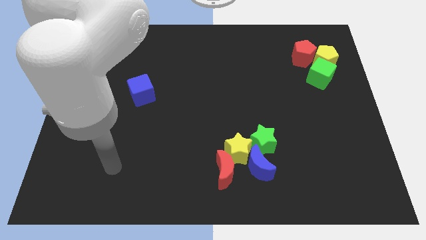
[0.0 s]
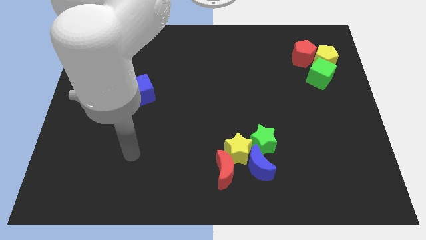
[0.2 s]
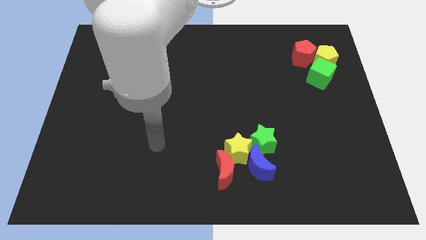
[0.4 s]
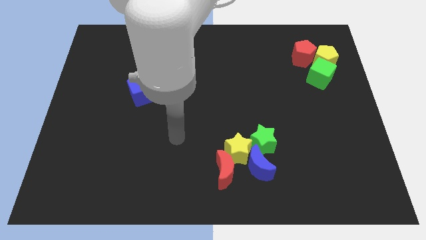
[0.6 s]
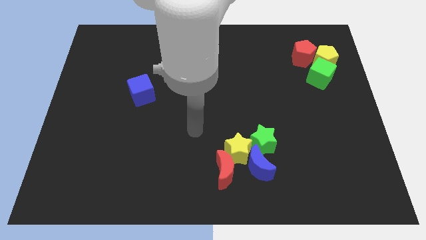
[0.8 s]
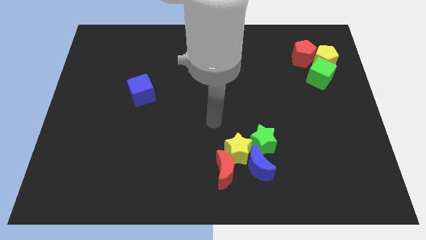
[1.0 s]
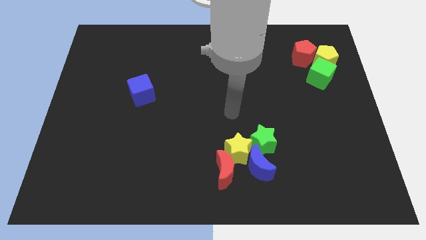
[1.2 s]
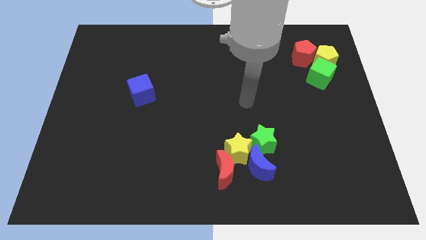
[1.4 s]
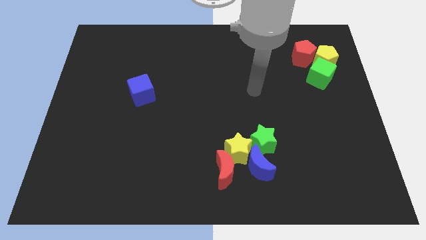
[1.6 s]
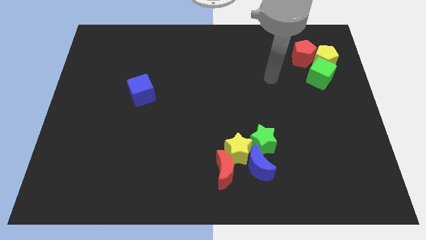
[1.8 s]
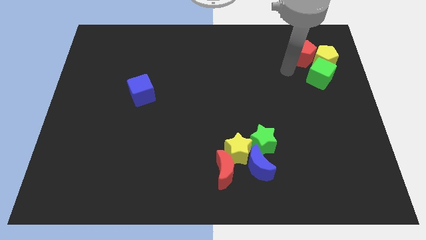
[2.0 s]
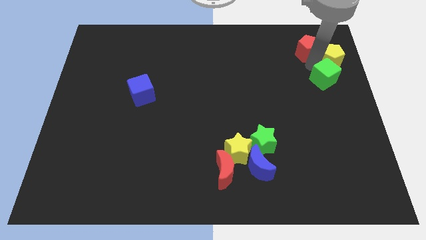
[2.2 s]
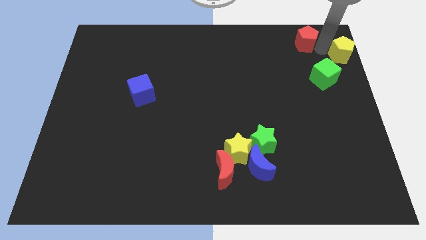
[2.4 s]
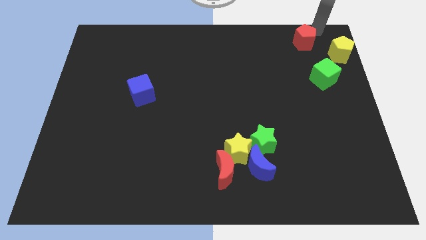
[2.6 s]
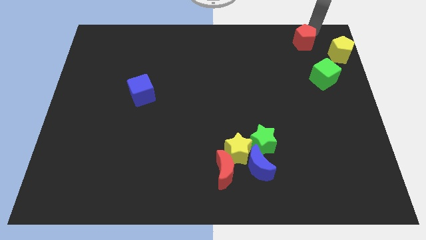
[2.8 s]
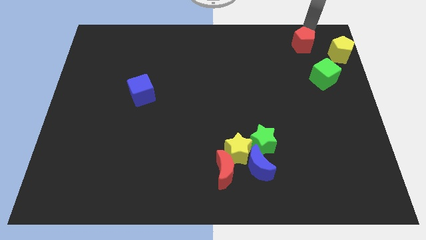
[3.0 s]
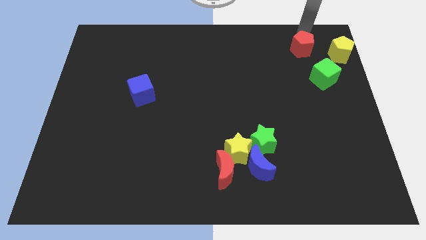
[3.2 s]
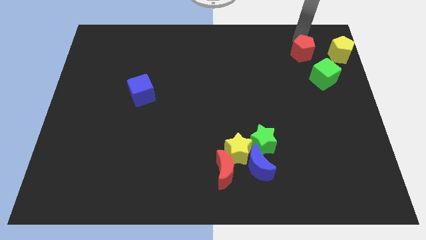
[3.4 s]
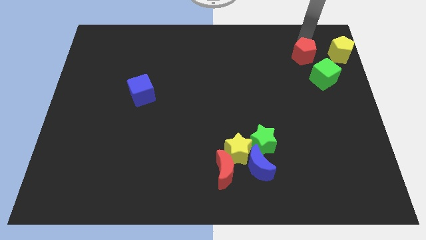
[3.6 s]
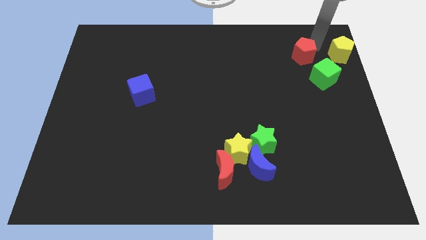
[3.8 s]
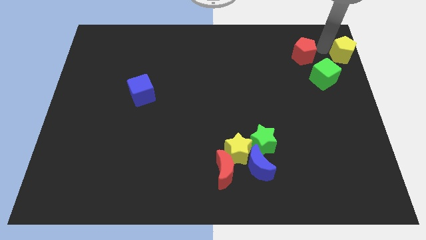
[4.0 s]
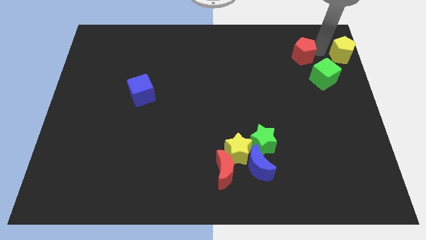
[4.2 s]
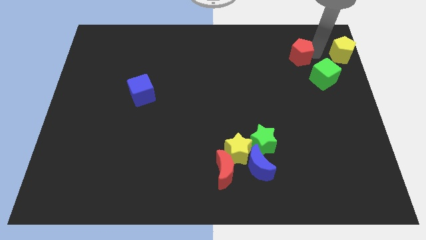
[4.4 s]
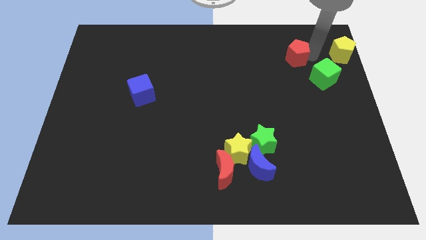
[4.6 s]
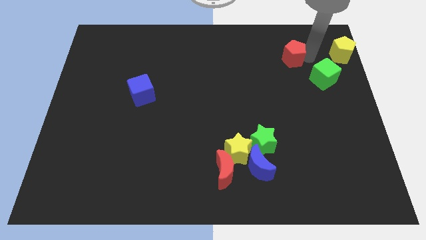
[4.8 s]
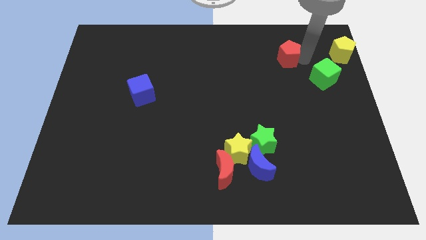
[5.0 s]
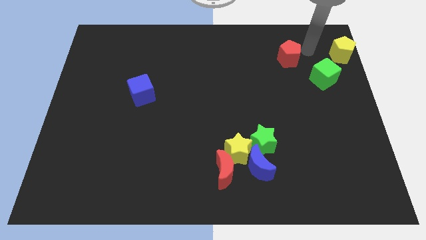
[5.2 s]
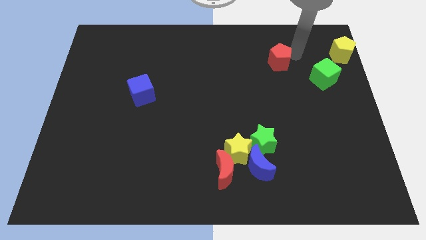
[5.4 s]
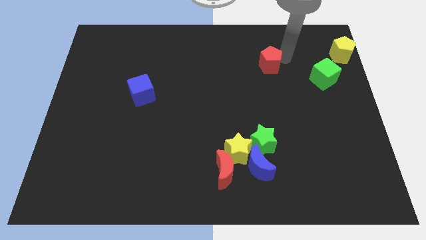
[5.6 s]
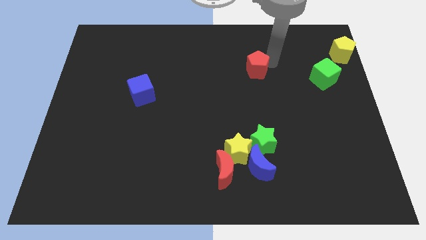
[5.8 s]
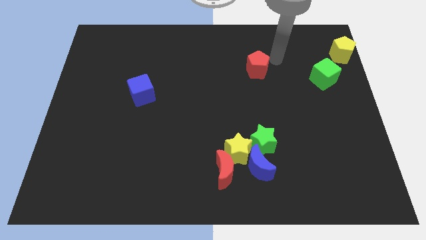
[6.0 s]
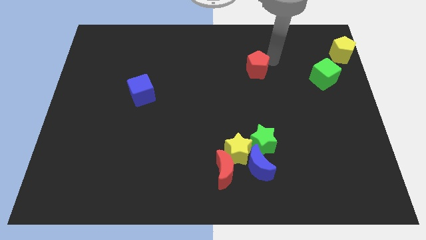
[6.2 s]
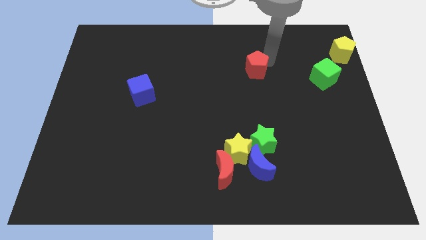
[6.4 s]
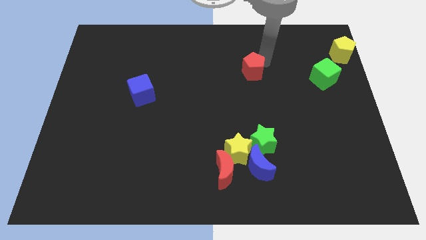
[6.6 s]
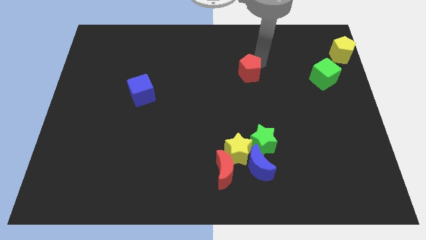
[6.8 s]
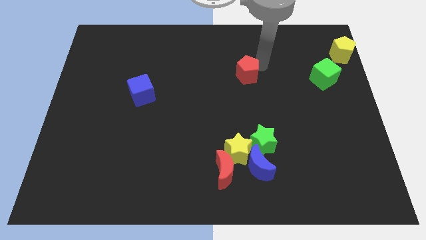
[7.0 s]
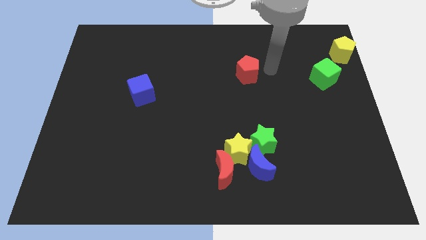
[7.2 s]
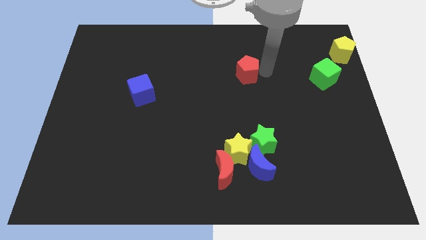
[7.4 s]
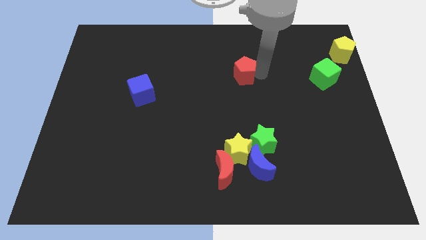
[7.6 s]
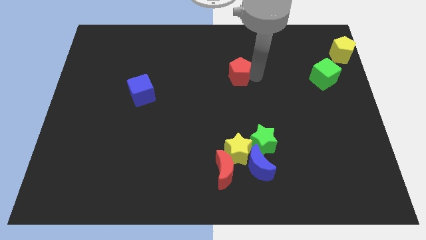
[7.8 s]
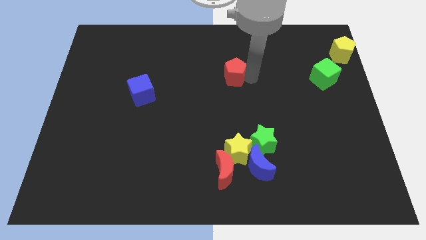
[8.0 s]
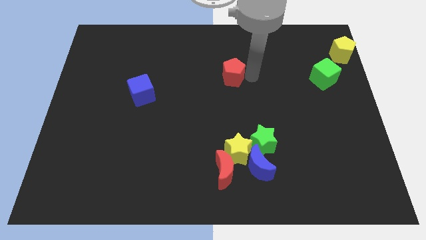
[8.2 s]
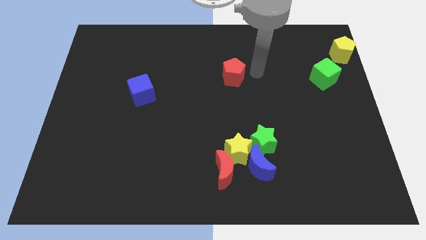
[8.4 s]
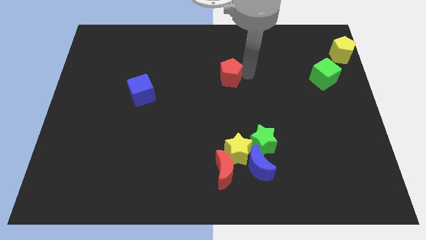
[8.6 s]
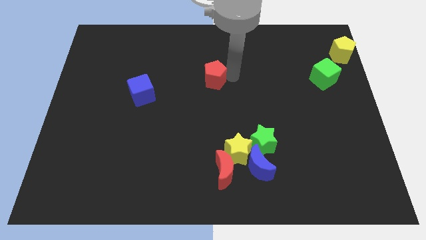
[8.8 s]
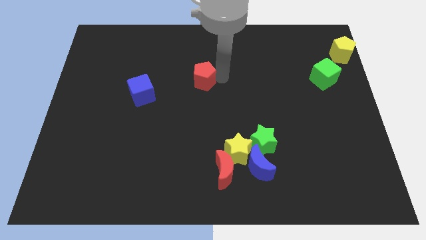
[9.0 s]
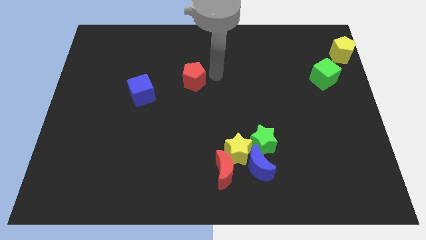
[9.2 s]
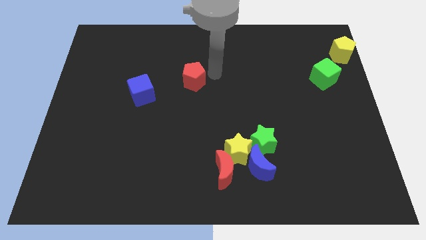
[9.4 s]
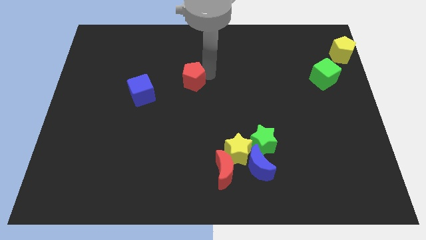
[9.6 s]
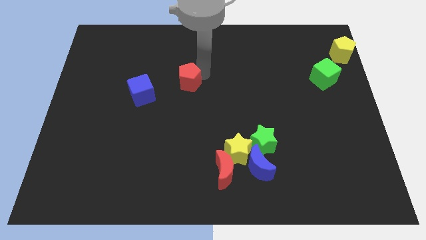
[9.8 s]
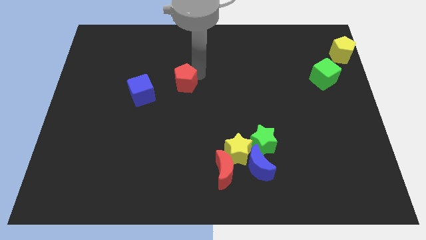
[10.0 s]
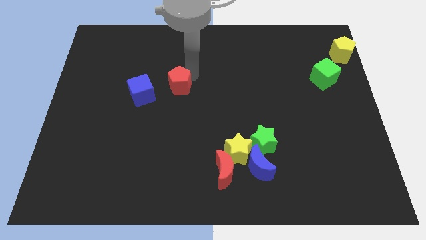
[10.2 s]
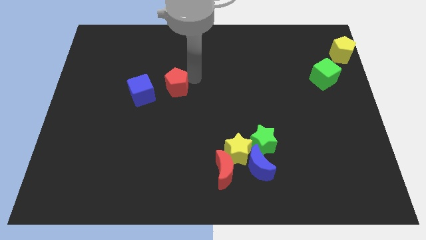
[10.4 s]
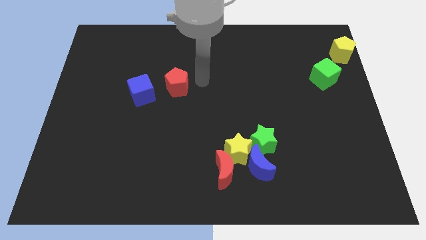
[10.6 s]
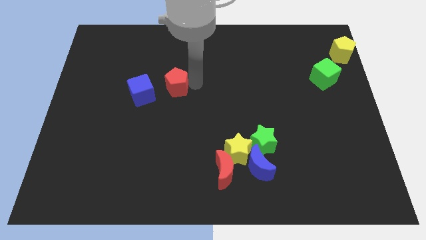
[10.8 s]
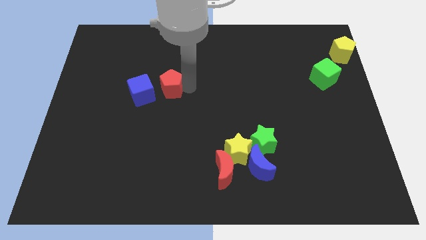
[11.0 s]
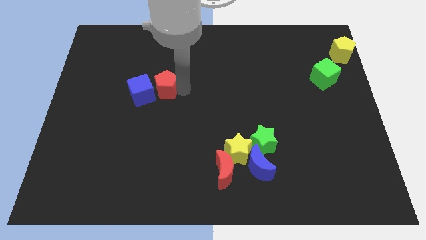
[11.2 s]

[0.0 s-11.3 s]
move the red pentagon close to the blue cube

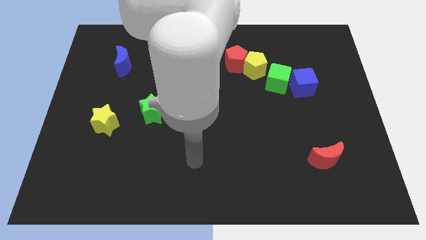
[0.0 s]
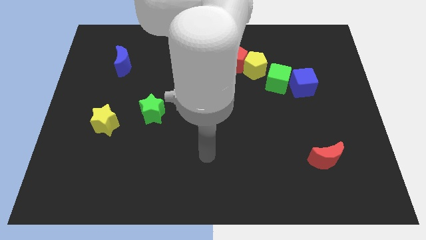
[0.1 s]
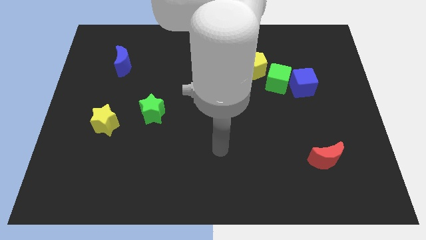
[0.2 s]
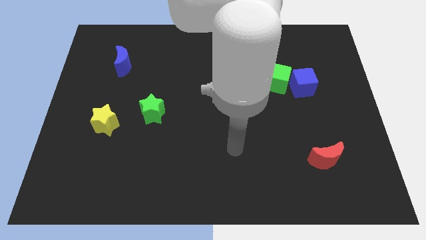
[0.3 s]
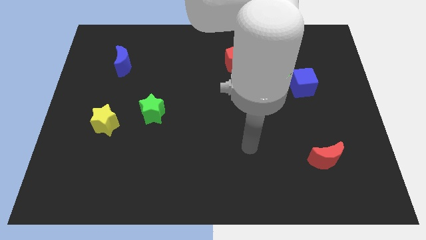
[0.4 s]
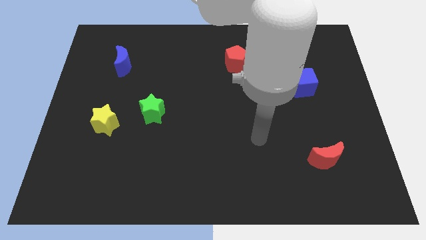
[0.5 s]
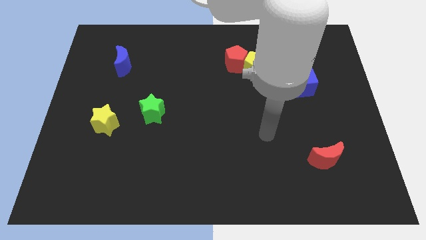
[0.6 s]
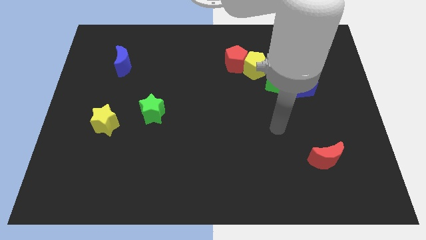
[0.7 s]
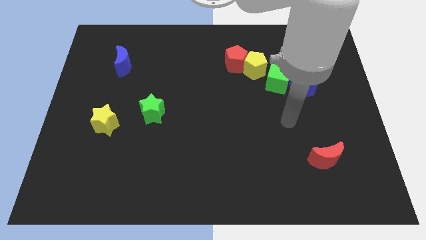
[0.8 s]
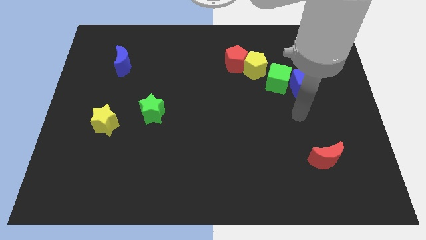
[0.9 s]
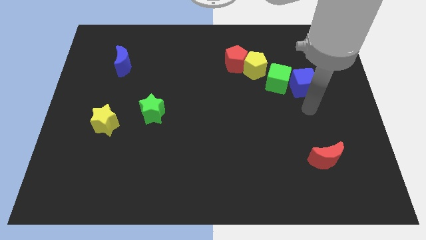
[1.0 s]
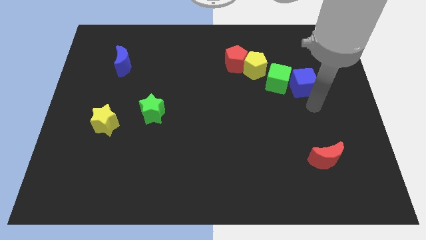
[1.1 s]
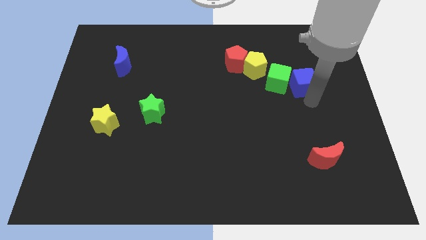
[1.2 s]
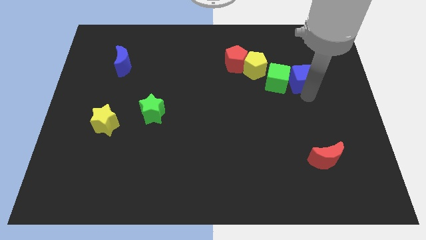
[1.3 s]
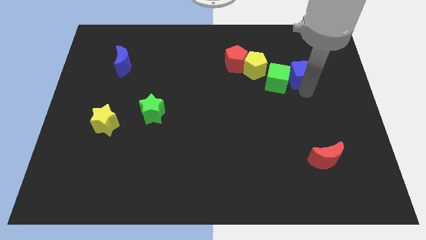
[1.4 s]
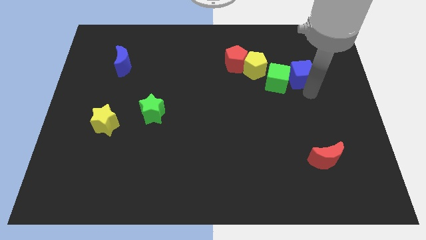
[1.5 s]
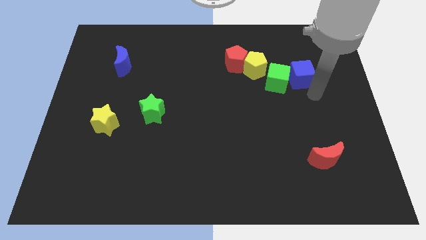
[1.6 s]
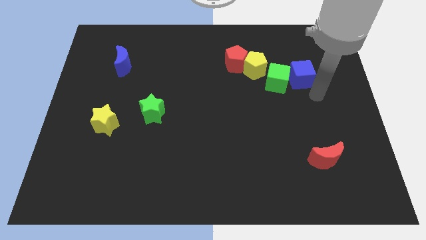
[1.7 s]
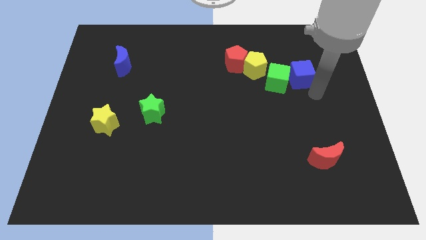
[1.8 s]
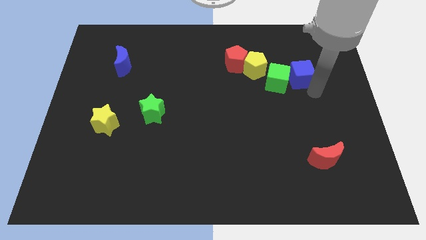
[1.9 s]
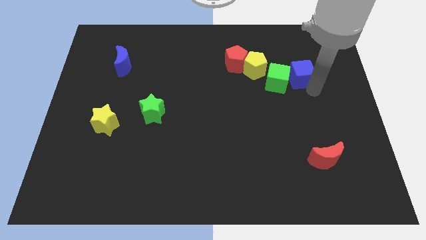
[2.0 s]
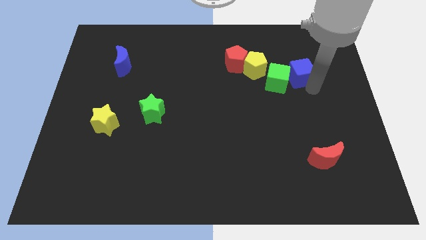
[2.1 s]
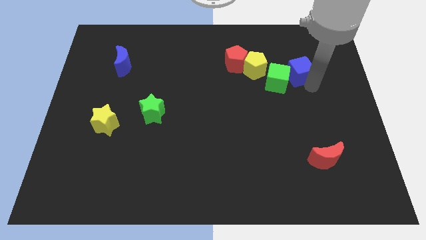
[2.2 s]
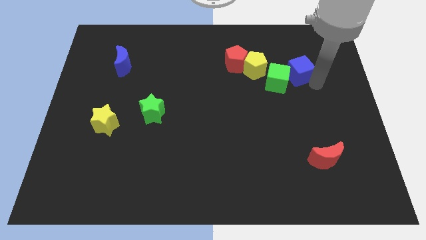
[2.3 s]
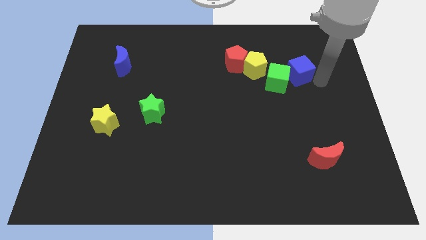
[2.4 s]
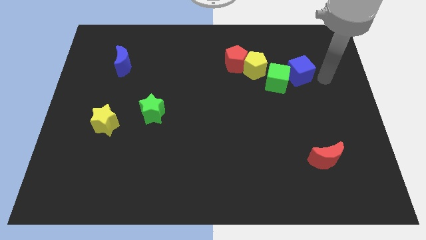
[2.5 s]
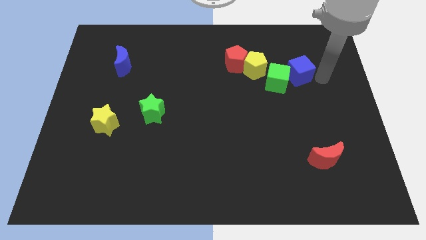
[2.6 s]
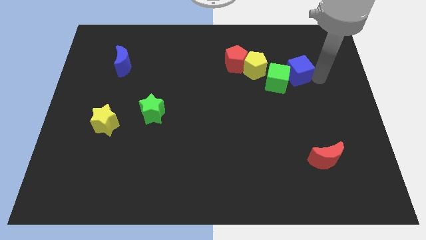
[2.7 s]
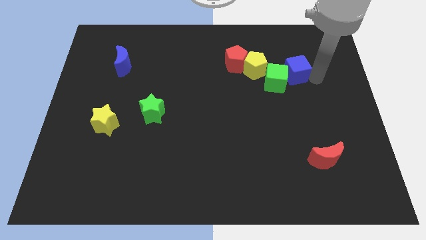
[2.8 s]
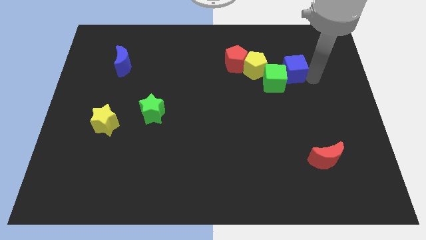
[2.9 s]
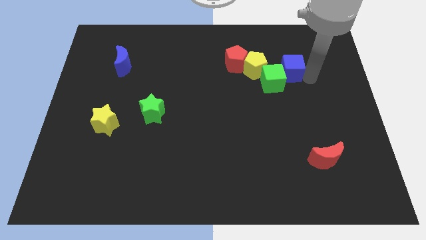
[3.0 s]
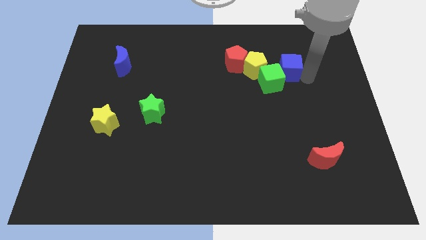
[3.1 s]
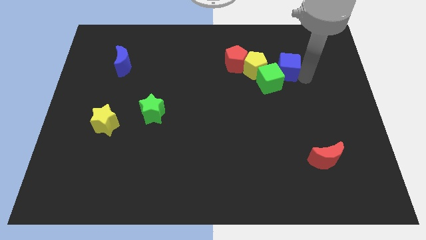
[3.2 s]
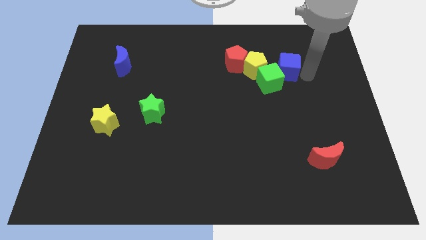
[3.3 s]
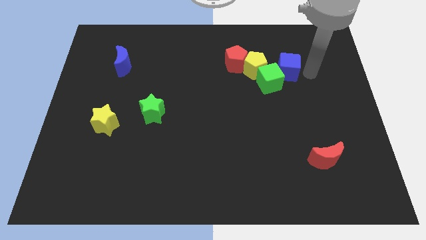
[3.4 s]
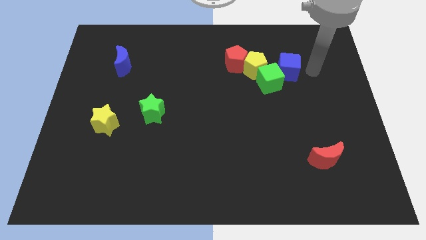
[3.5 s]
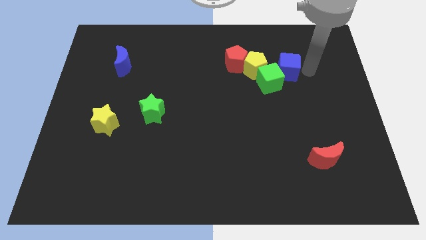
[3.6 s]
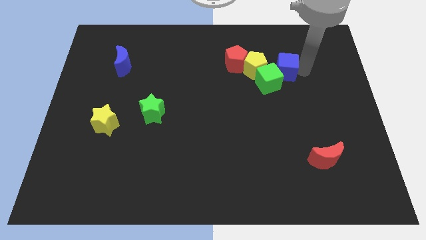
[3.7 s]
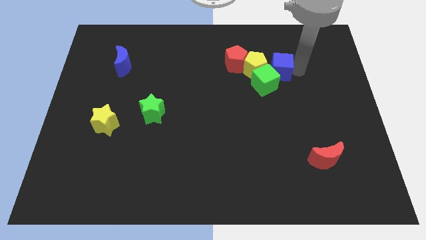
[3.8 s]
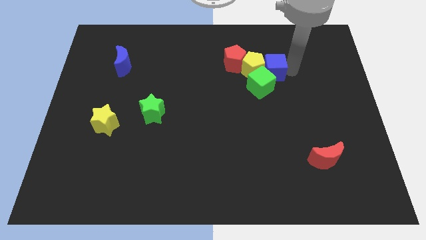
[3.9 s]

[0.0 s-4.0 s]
push the blue cube towards the yellow pentagon
